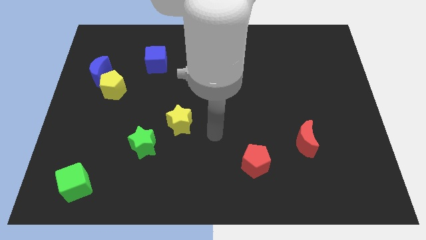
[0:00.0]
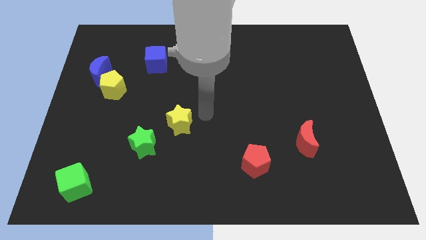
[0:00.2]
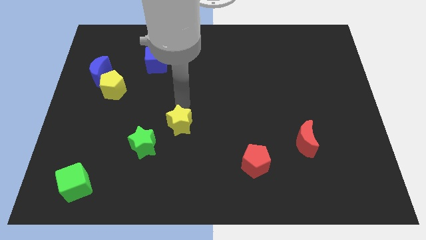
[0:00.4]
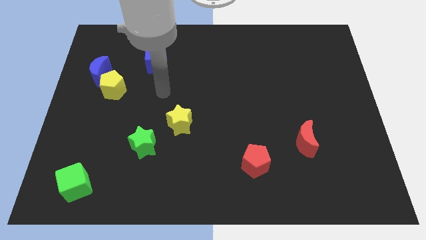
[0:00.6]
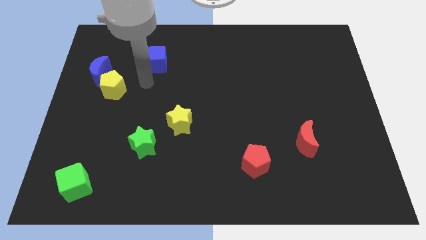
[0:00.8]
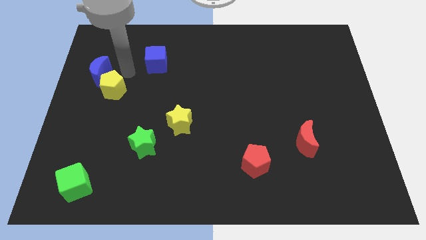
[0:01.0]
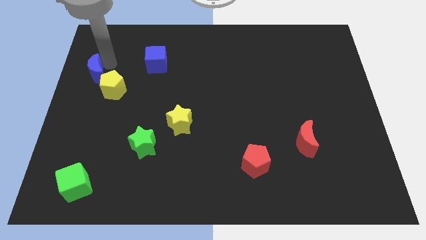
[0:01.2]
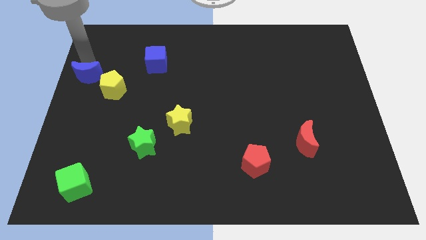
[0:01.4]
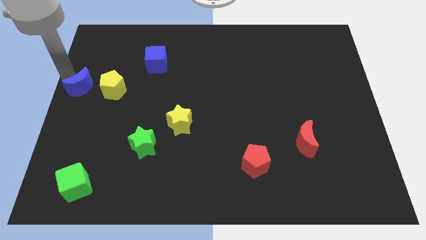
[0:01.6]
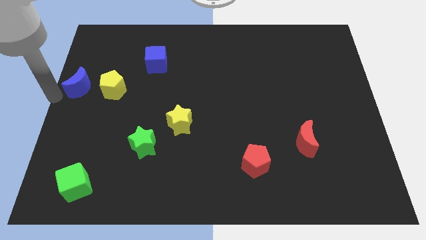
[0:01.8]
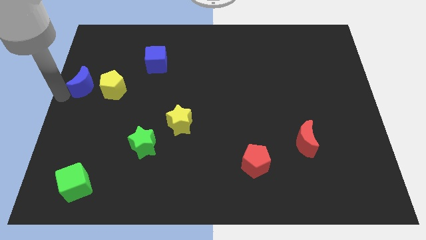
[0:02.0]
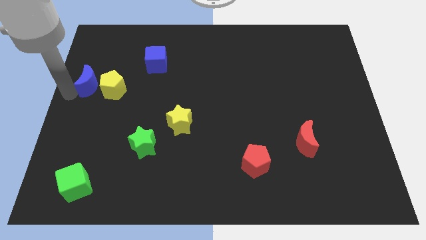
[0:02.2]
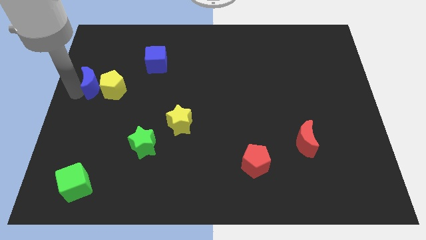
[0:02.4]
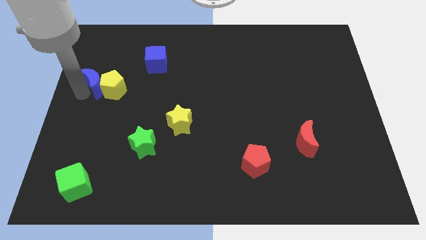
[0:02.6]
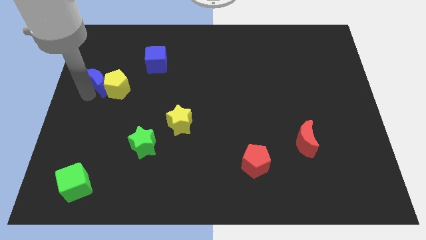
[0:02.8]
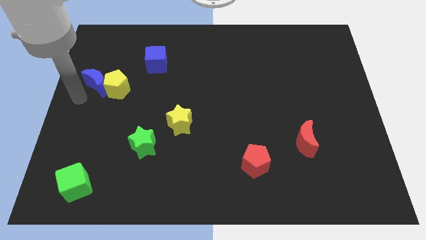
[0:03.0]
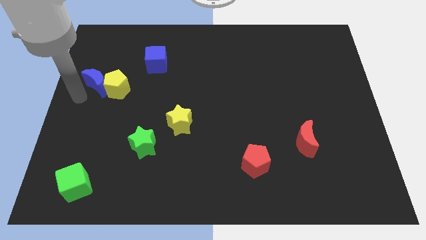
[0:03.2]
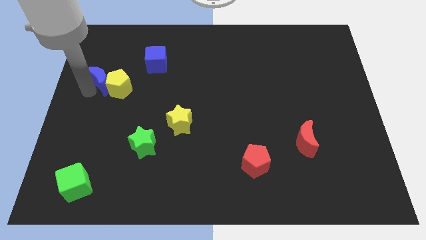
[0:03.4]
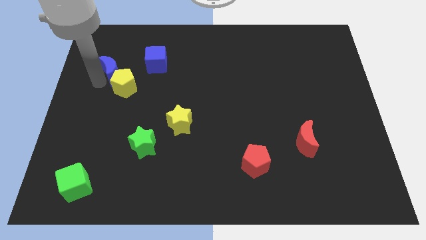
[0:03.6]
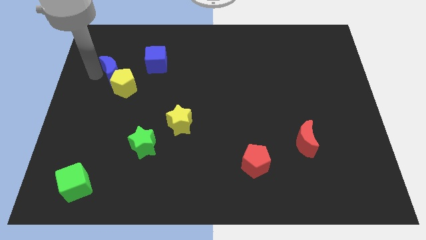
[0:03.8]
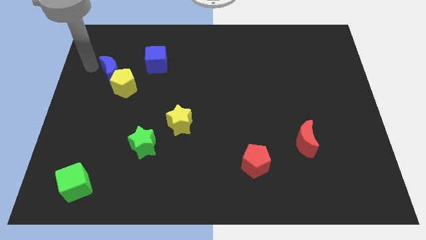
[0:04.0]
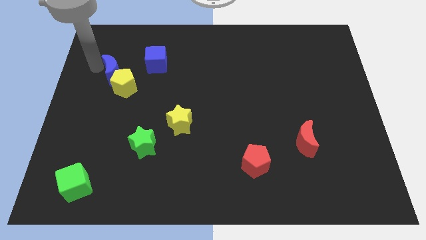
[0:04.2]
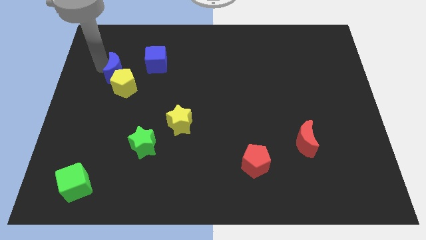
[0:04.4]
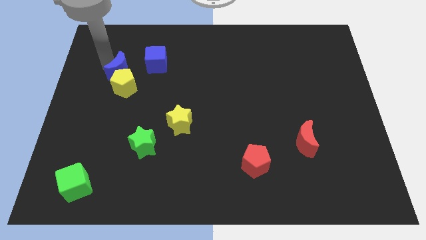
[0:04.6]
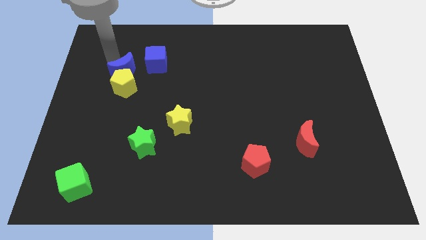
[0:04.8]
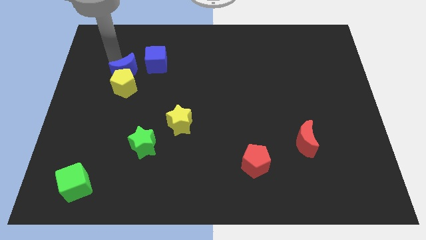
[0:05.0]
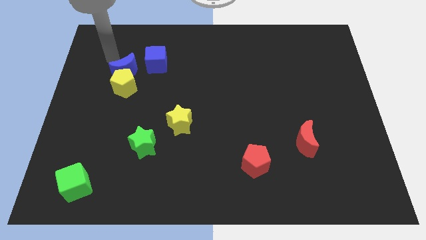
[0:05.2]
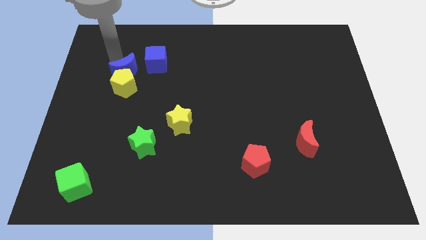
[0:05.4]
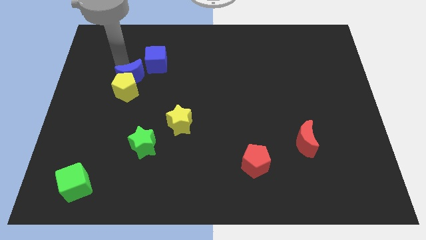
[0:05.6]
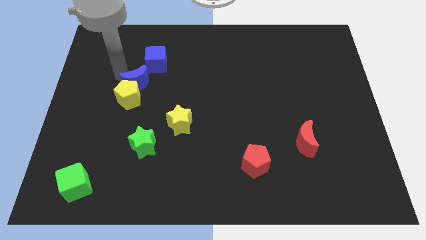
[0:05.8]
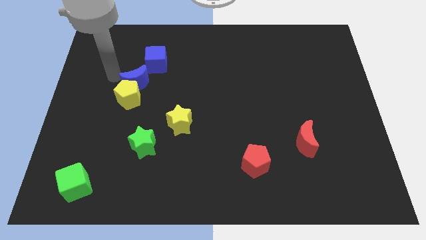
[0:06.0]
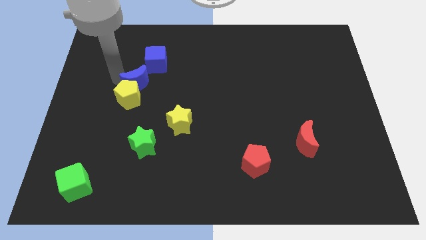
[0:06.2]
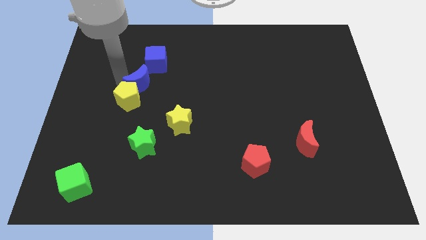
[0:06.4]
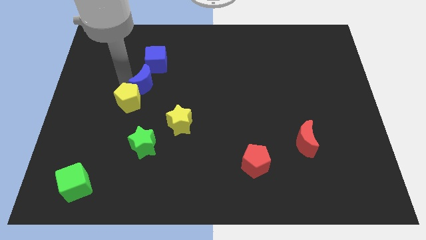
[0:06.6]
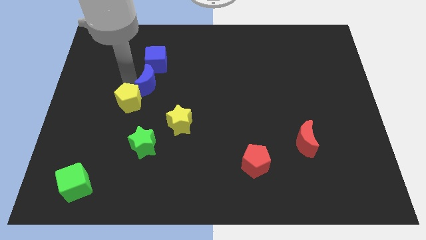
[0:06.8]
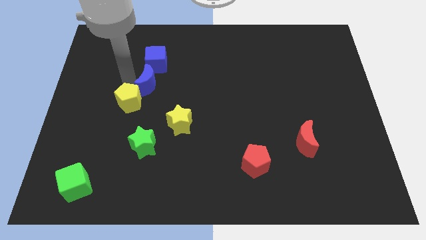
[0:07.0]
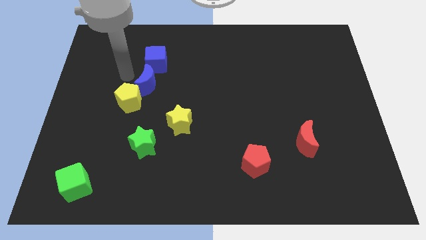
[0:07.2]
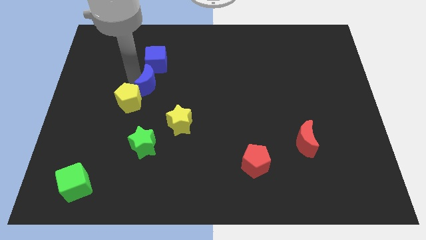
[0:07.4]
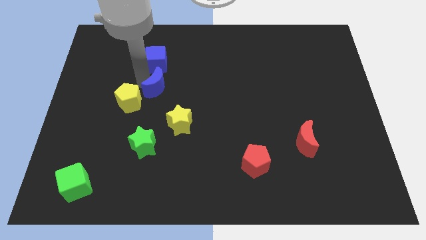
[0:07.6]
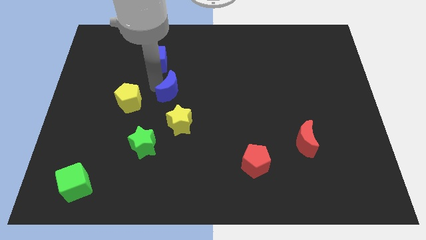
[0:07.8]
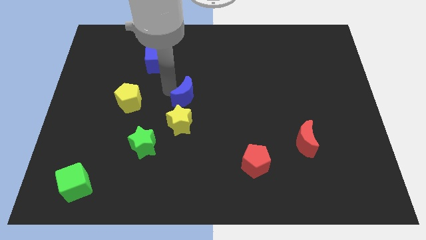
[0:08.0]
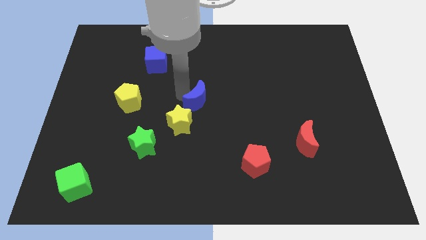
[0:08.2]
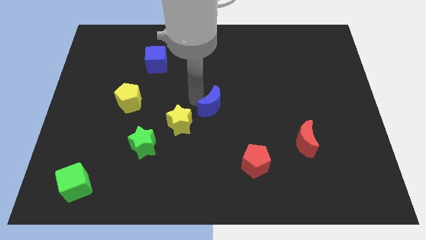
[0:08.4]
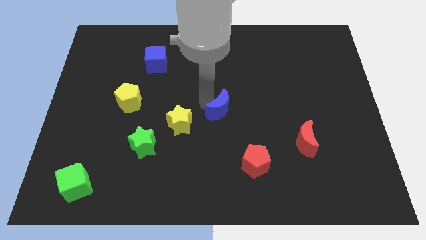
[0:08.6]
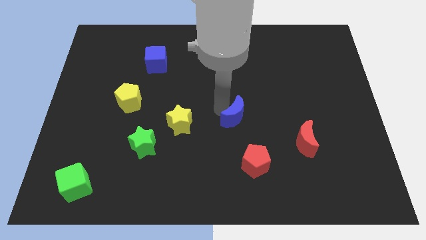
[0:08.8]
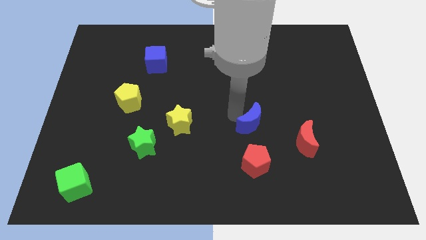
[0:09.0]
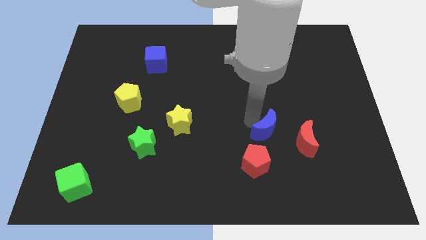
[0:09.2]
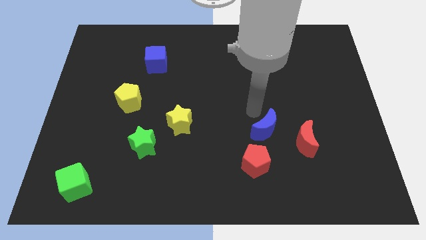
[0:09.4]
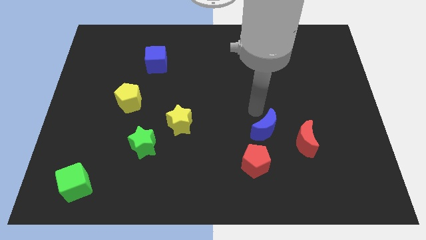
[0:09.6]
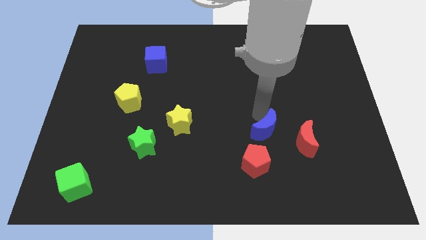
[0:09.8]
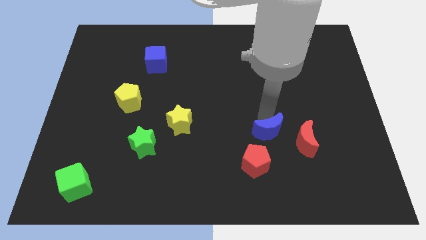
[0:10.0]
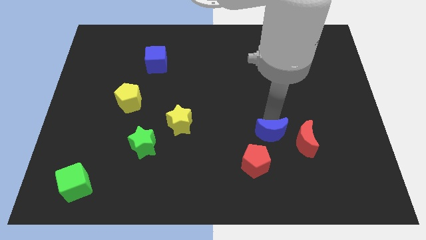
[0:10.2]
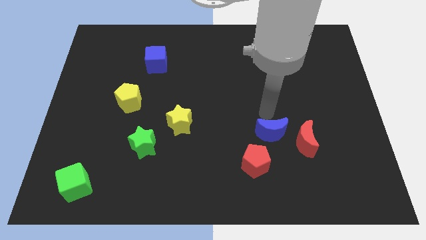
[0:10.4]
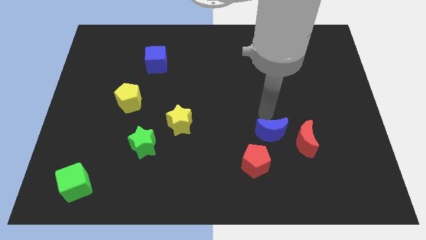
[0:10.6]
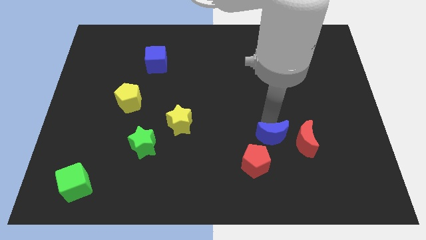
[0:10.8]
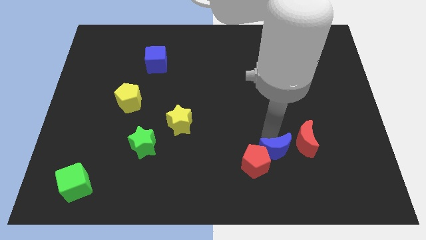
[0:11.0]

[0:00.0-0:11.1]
move the blue moon to the right side of the red pentagon

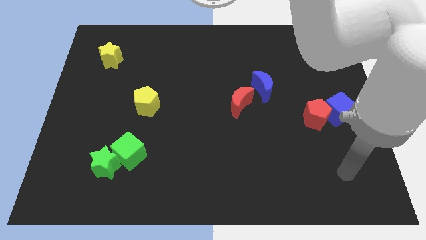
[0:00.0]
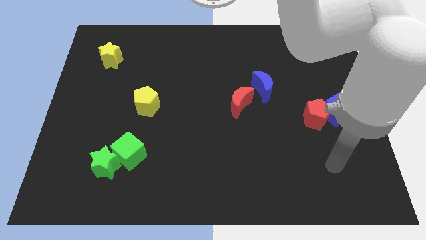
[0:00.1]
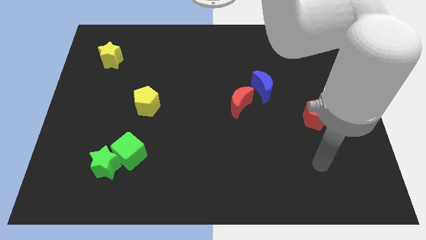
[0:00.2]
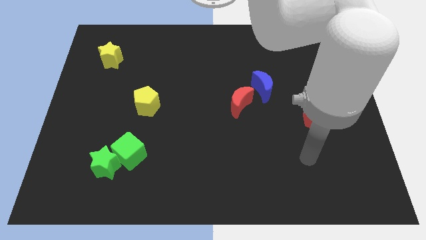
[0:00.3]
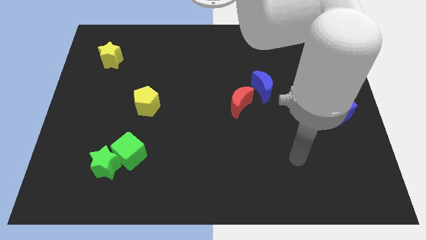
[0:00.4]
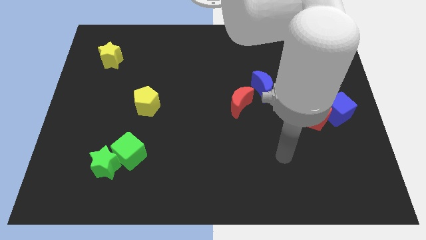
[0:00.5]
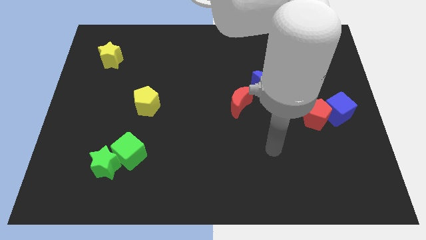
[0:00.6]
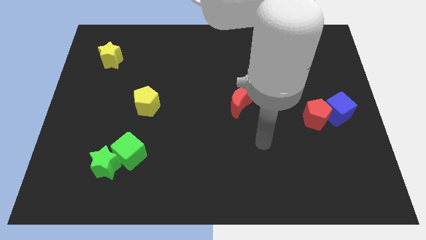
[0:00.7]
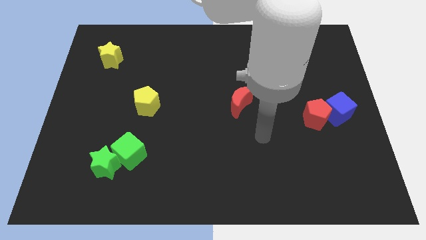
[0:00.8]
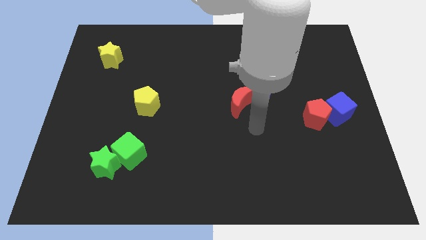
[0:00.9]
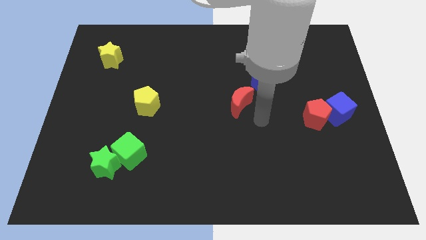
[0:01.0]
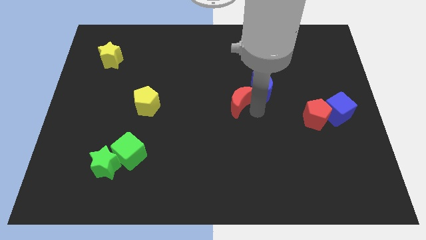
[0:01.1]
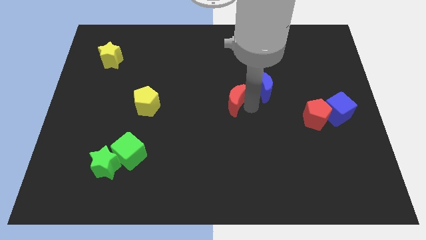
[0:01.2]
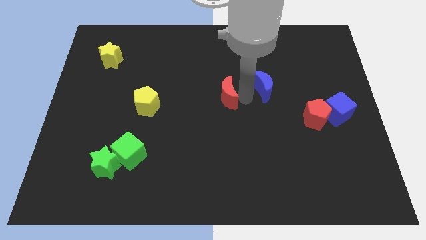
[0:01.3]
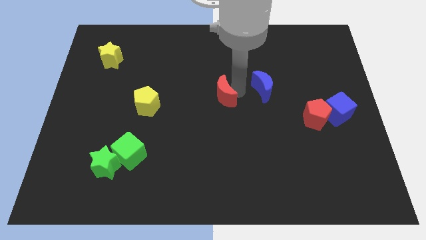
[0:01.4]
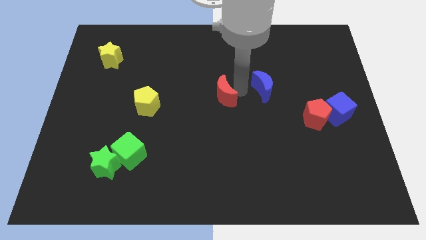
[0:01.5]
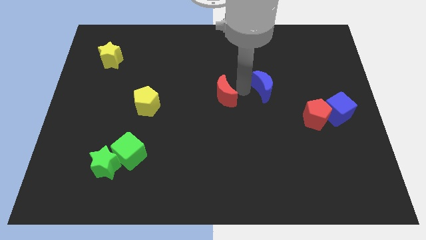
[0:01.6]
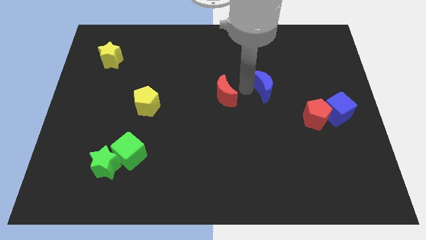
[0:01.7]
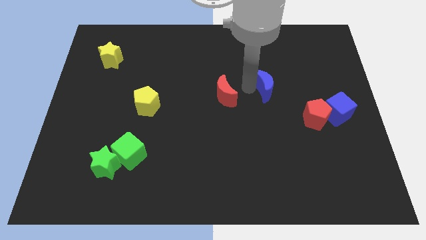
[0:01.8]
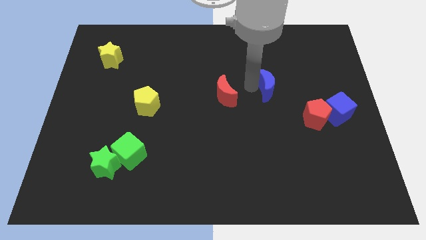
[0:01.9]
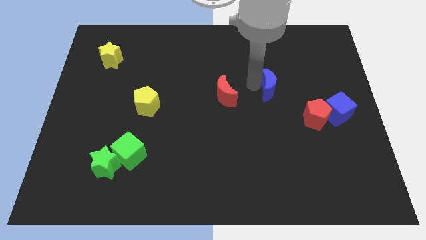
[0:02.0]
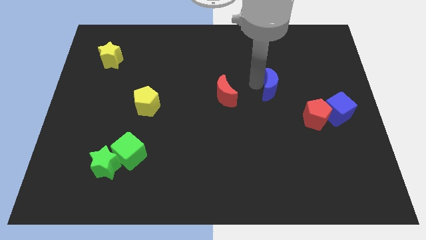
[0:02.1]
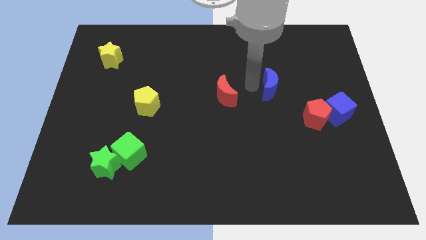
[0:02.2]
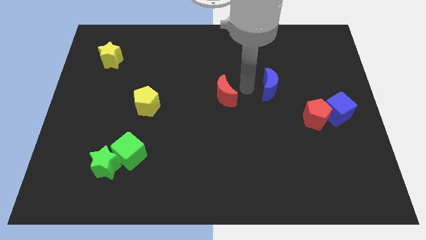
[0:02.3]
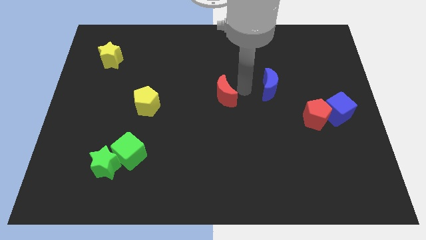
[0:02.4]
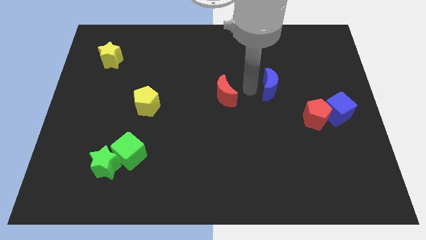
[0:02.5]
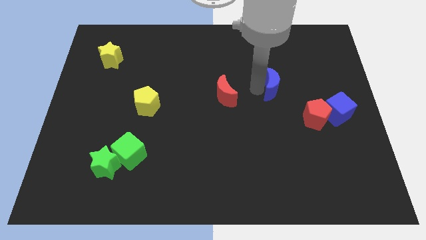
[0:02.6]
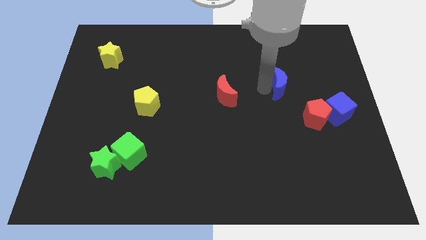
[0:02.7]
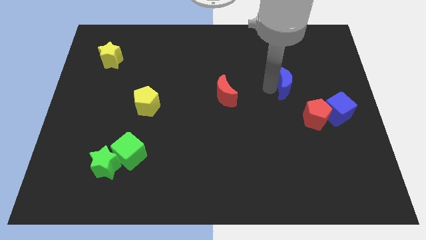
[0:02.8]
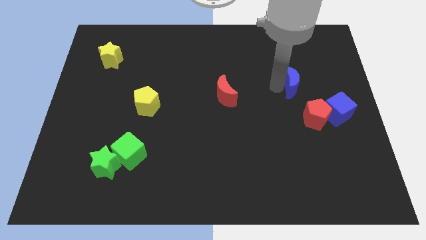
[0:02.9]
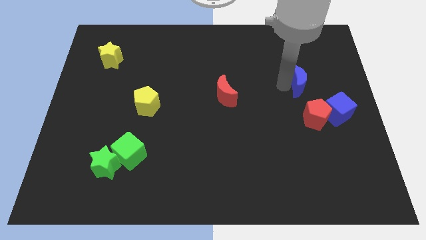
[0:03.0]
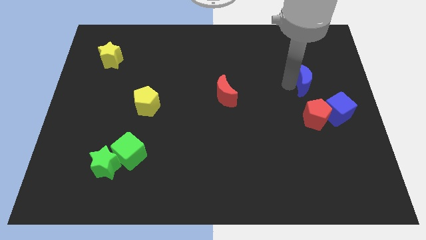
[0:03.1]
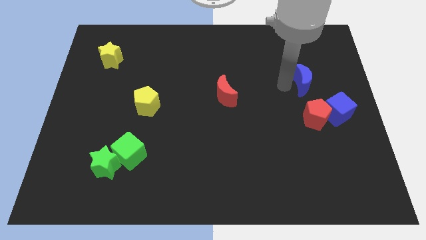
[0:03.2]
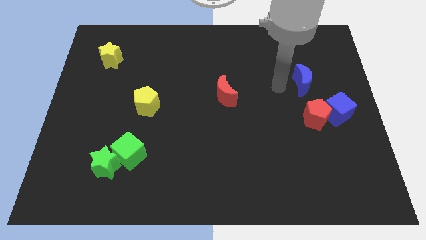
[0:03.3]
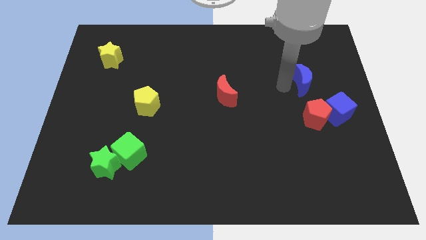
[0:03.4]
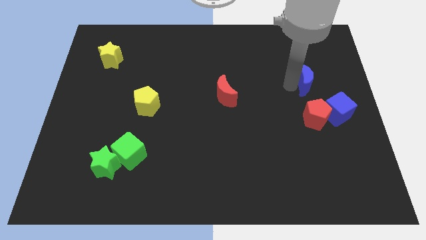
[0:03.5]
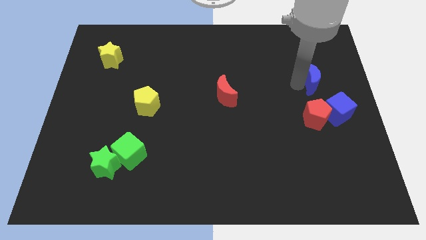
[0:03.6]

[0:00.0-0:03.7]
move the blue moon to the top side of the blue cube
